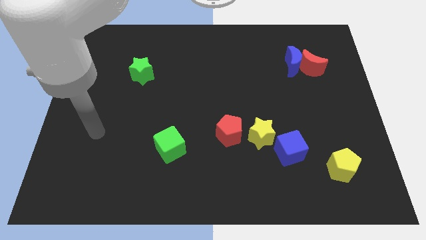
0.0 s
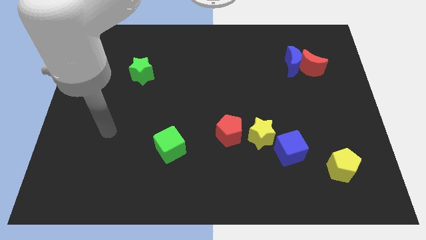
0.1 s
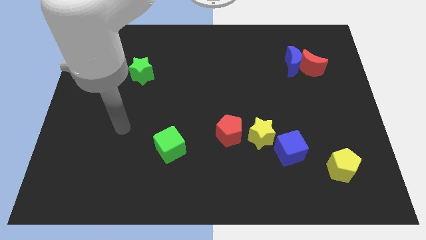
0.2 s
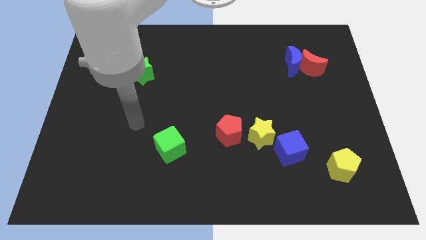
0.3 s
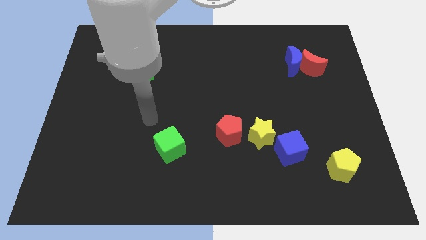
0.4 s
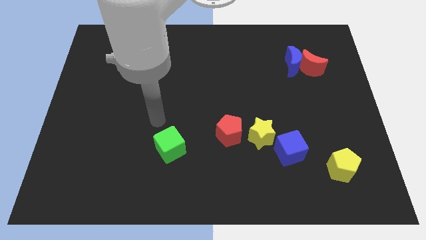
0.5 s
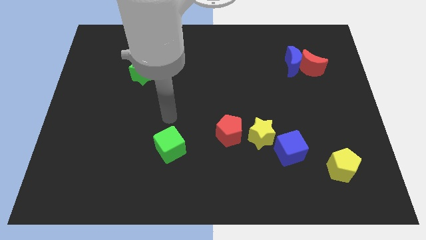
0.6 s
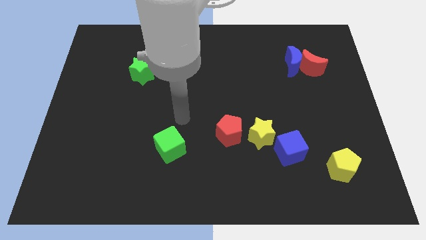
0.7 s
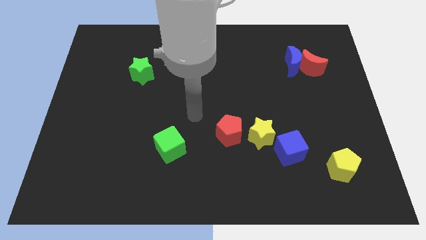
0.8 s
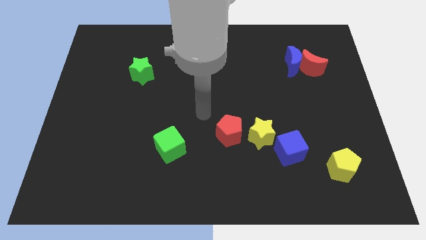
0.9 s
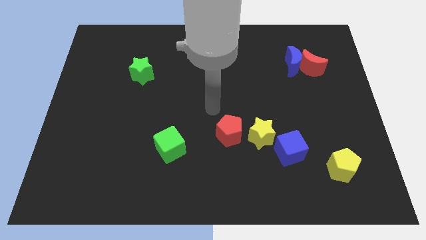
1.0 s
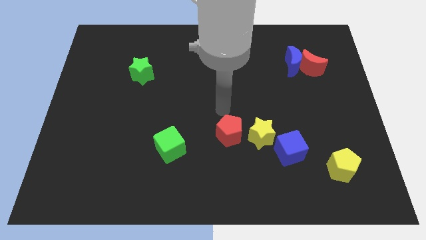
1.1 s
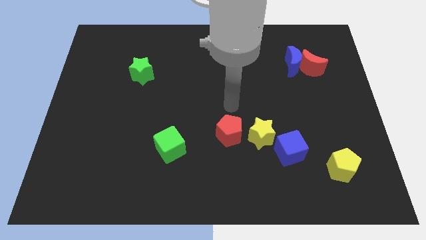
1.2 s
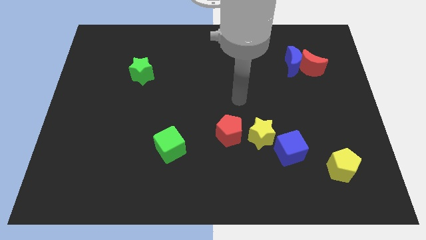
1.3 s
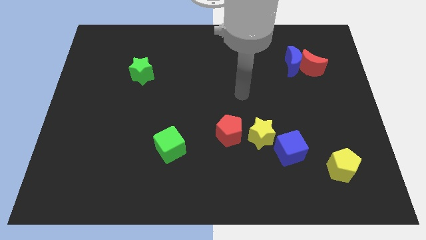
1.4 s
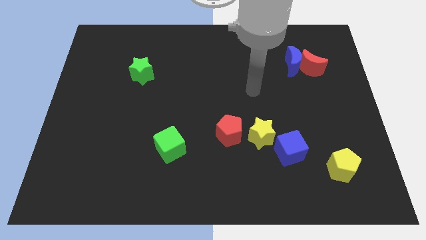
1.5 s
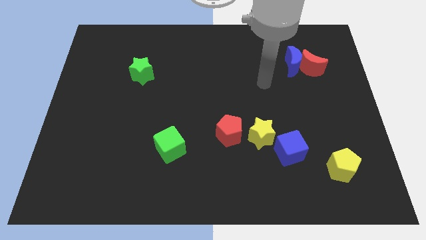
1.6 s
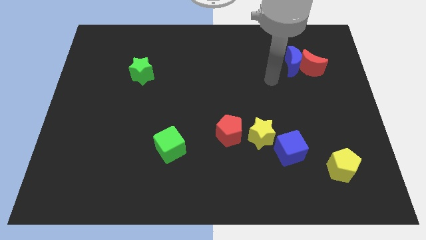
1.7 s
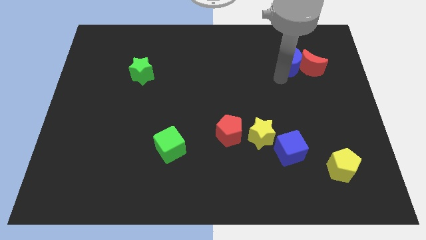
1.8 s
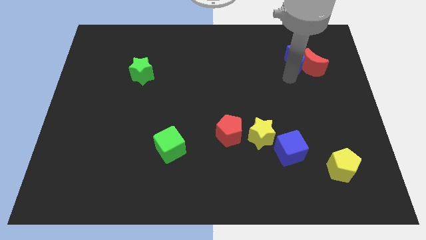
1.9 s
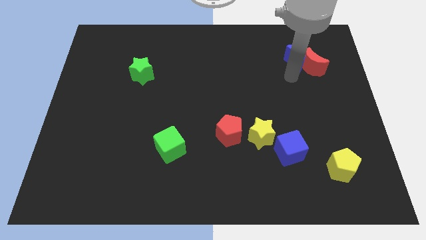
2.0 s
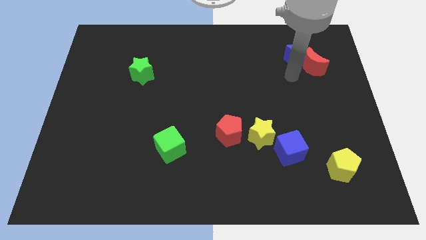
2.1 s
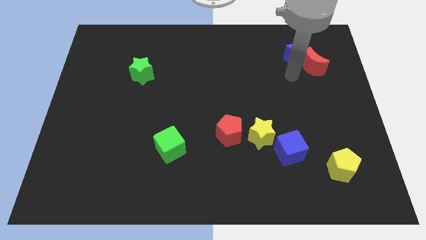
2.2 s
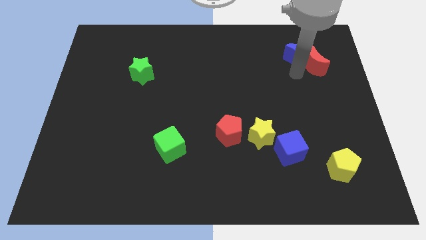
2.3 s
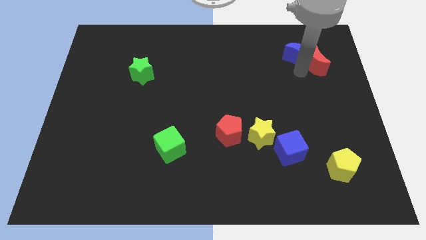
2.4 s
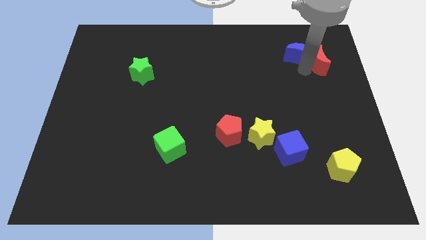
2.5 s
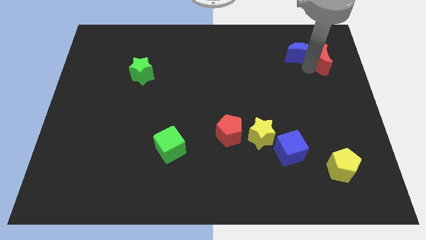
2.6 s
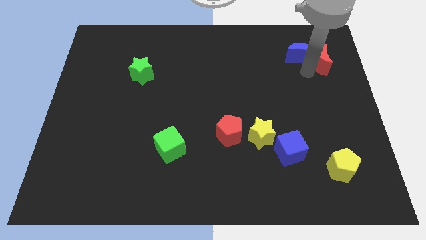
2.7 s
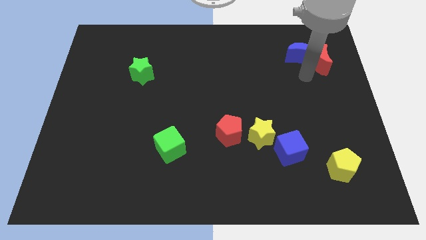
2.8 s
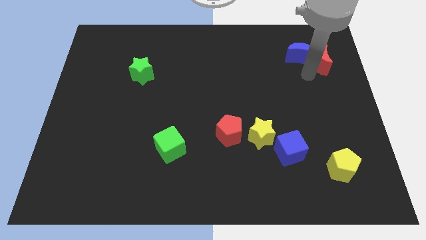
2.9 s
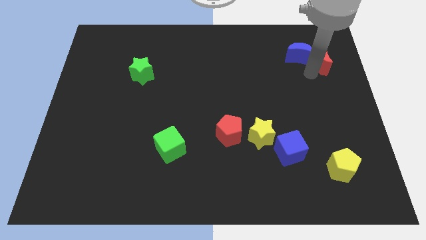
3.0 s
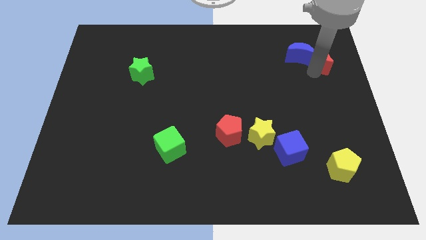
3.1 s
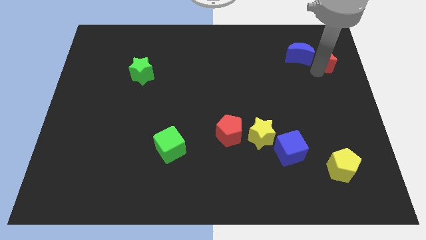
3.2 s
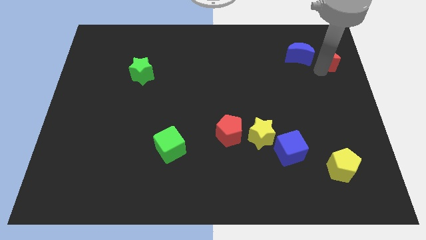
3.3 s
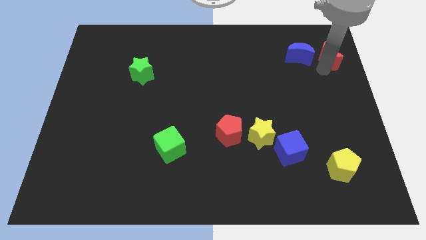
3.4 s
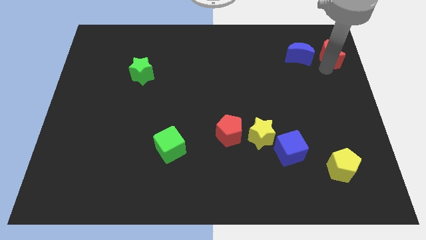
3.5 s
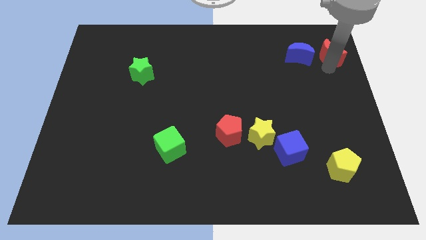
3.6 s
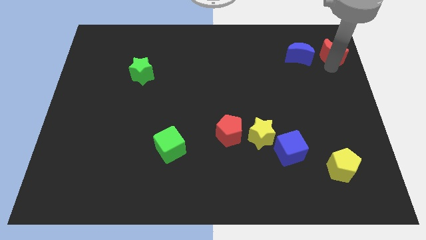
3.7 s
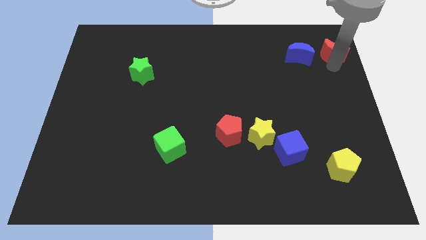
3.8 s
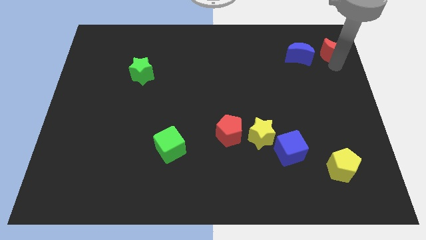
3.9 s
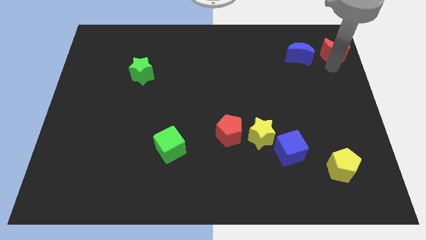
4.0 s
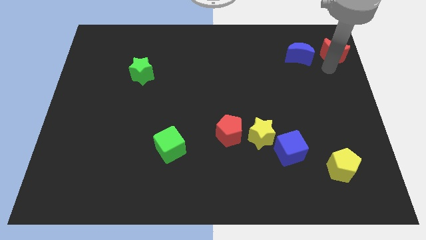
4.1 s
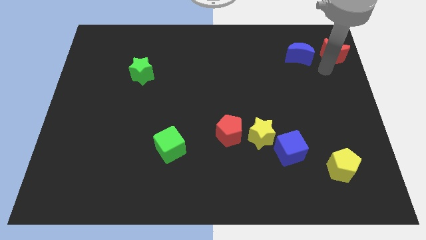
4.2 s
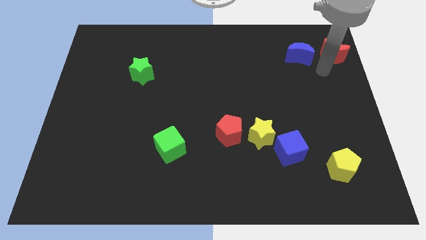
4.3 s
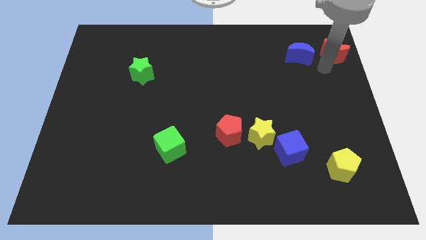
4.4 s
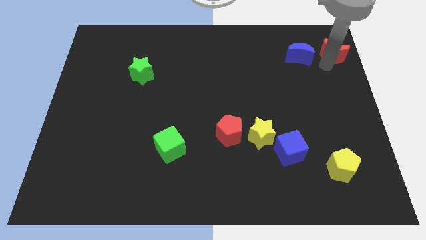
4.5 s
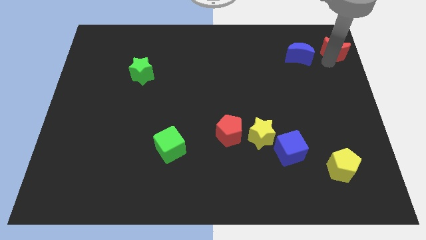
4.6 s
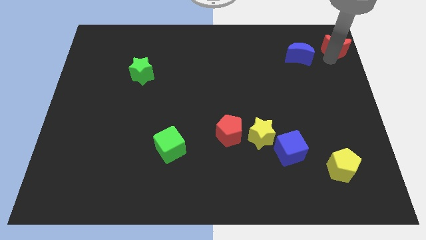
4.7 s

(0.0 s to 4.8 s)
push the red moon to the upper right corner

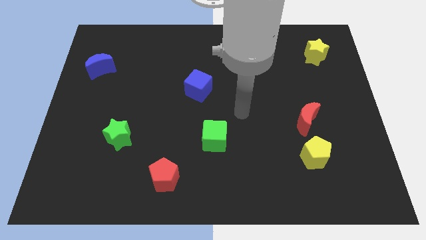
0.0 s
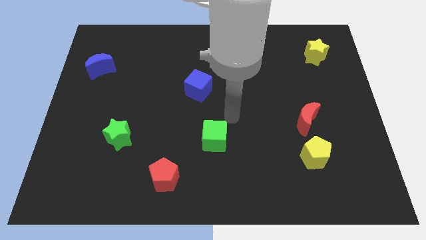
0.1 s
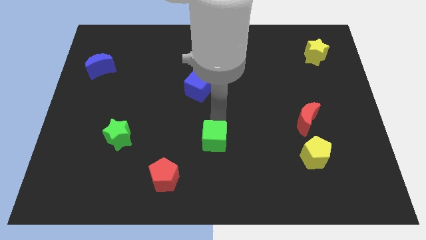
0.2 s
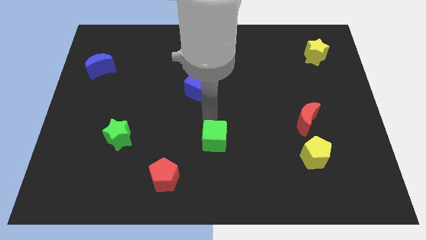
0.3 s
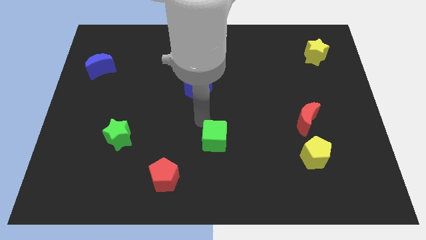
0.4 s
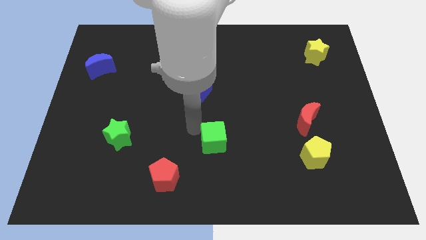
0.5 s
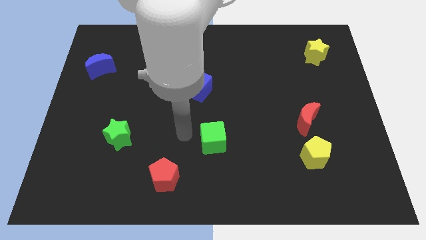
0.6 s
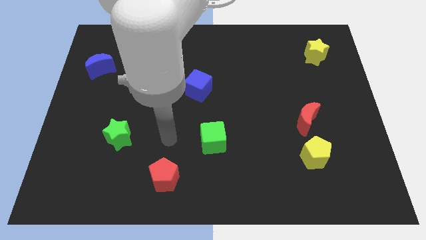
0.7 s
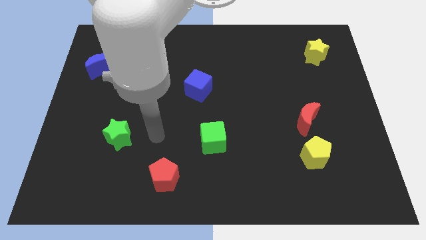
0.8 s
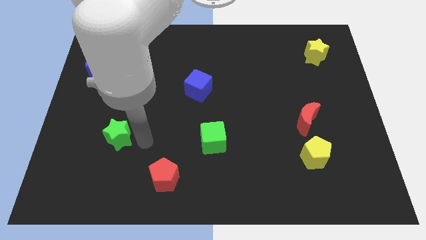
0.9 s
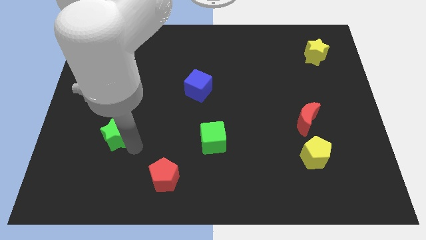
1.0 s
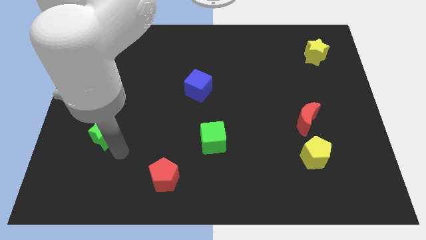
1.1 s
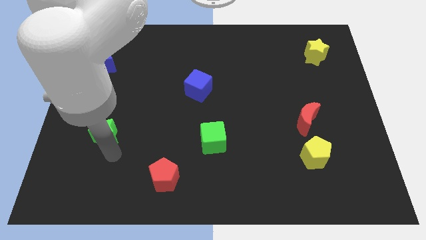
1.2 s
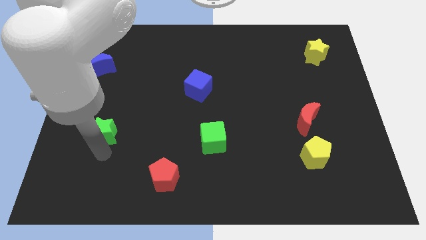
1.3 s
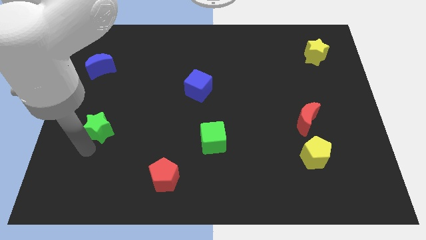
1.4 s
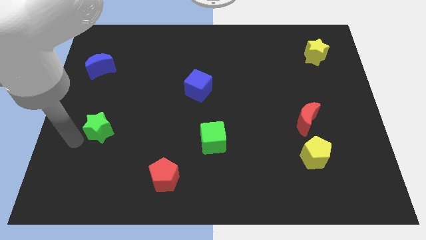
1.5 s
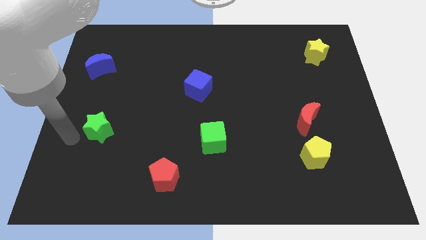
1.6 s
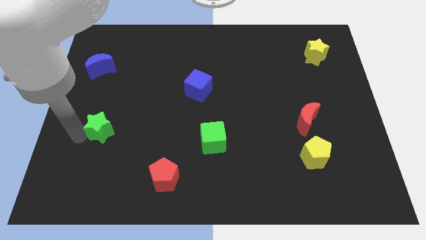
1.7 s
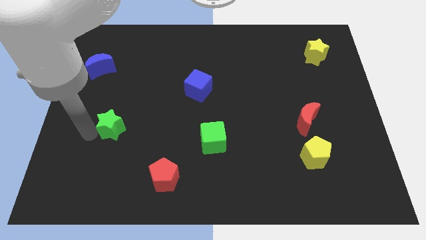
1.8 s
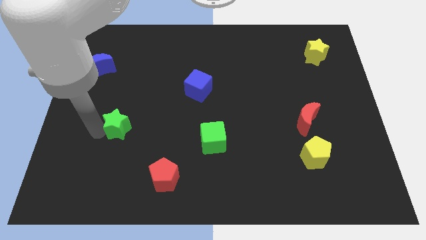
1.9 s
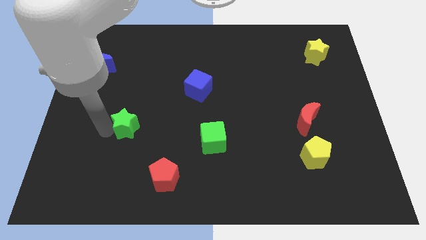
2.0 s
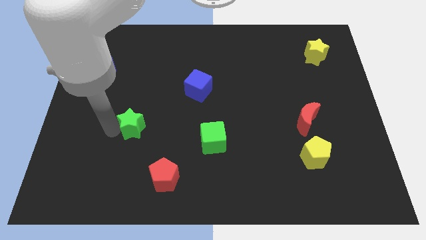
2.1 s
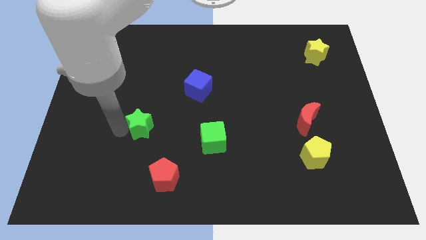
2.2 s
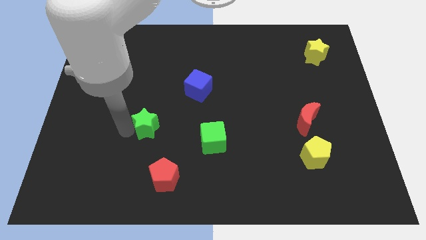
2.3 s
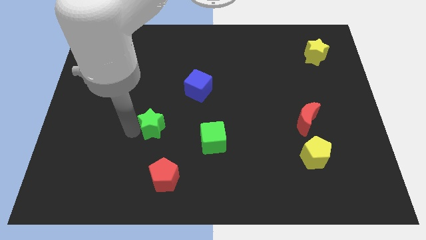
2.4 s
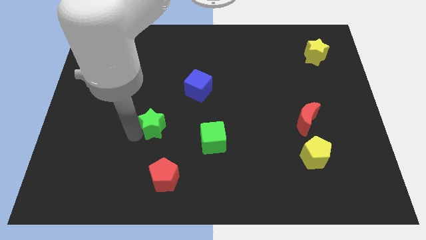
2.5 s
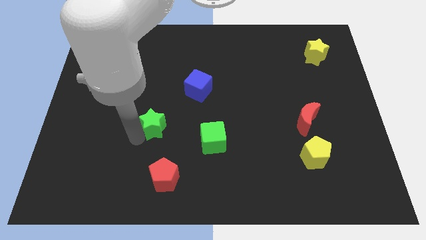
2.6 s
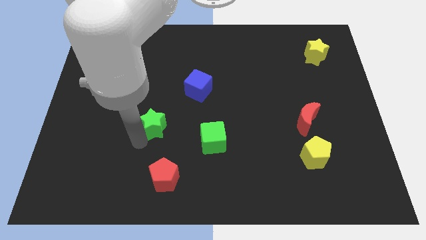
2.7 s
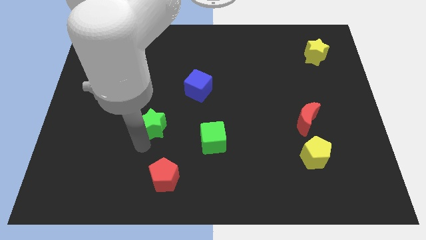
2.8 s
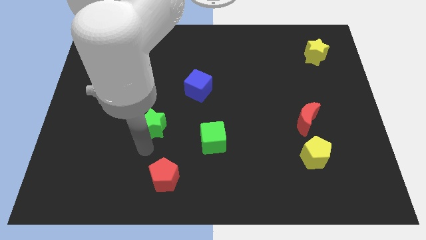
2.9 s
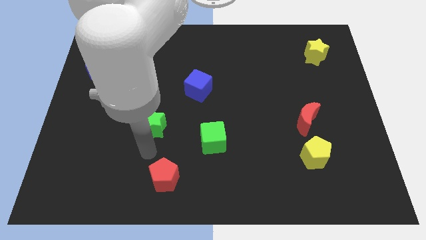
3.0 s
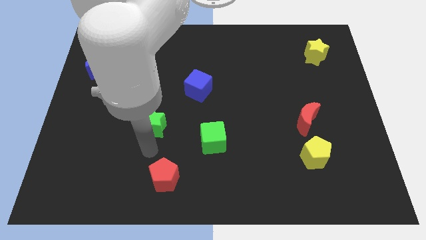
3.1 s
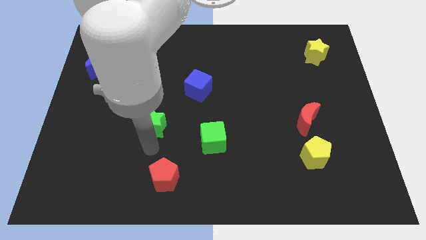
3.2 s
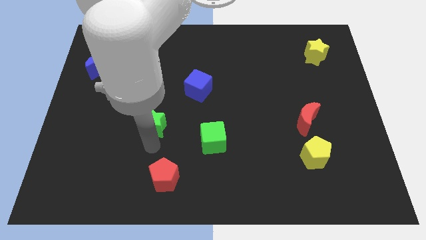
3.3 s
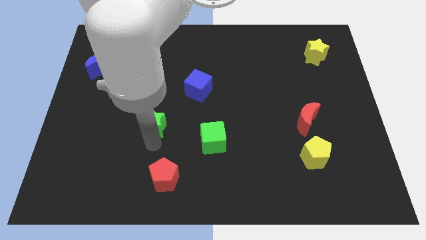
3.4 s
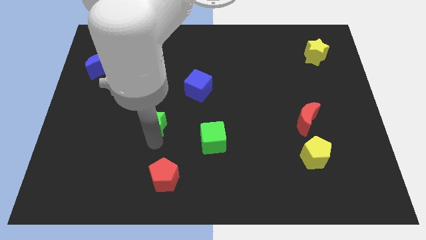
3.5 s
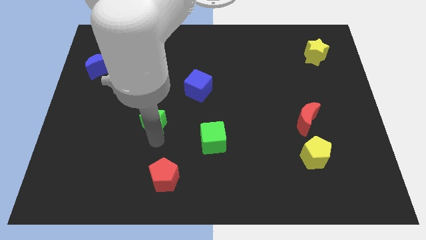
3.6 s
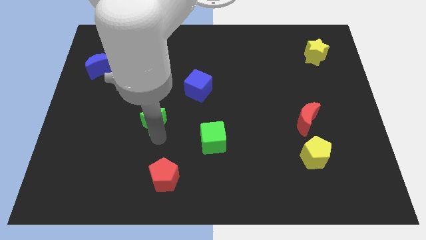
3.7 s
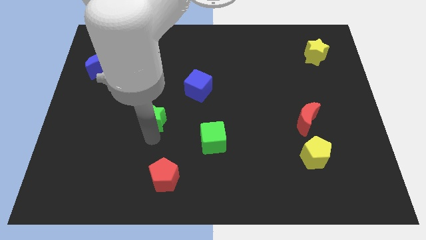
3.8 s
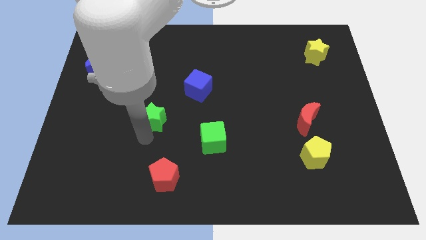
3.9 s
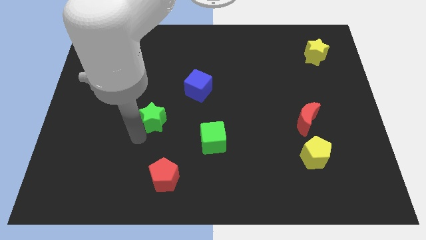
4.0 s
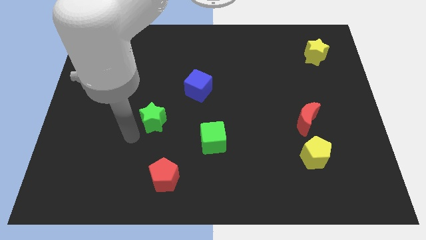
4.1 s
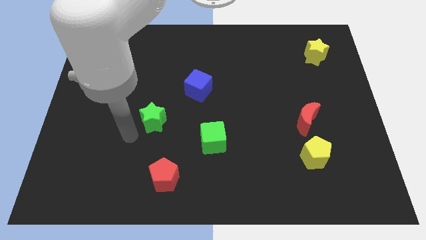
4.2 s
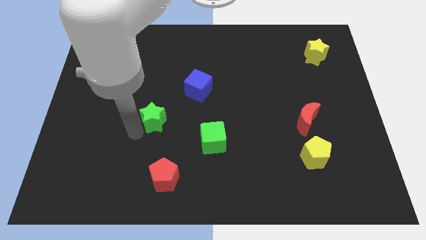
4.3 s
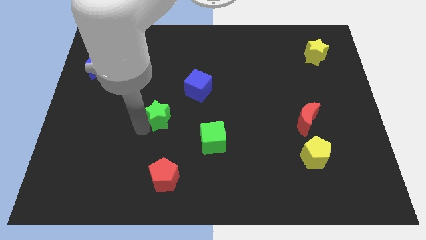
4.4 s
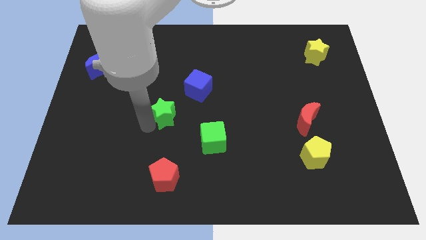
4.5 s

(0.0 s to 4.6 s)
move the green star to the center
